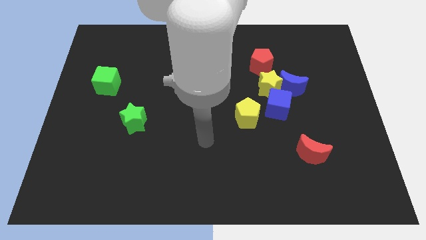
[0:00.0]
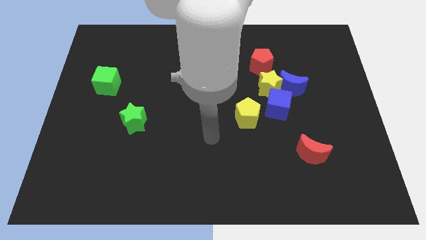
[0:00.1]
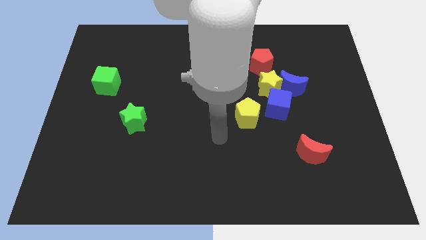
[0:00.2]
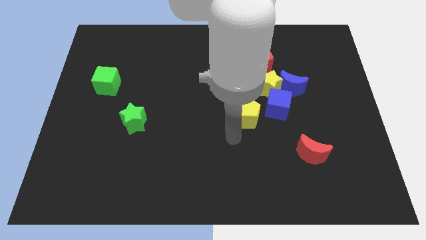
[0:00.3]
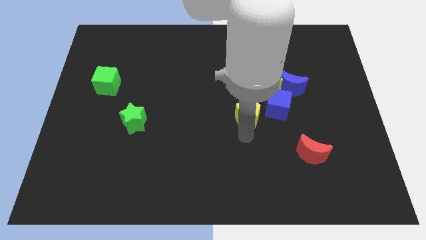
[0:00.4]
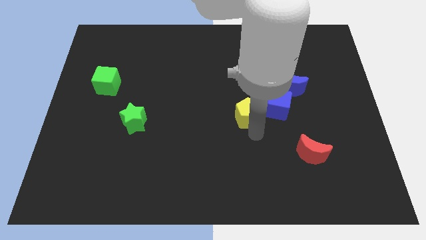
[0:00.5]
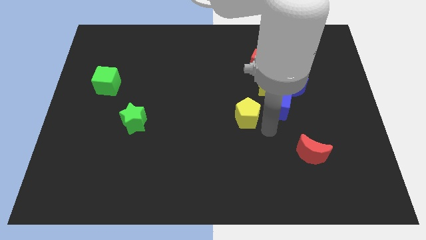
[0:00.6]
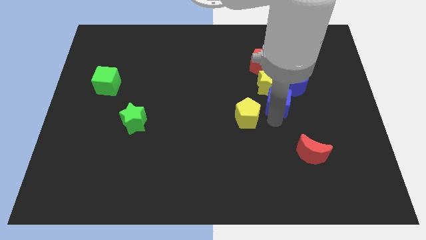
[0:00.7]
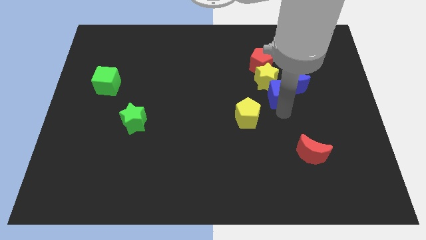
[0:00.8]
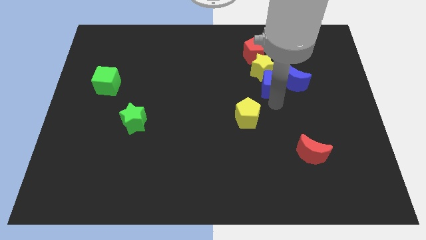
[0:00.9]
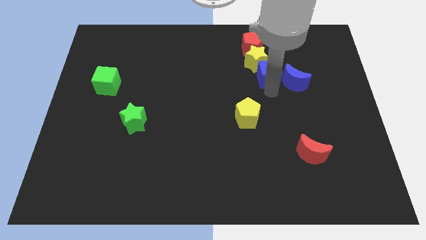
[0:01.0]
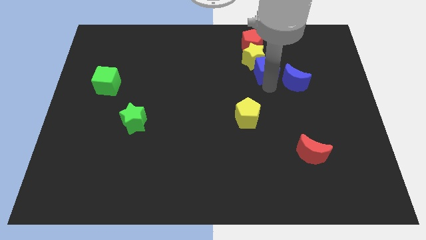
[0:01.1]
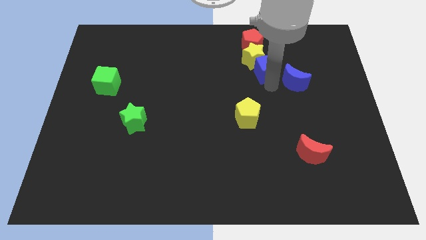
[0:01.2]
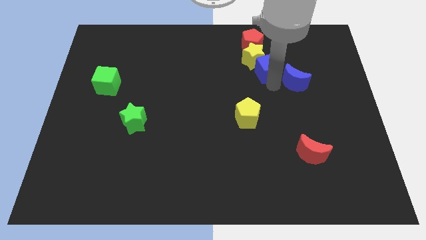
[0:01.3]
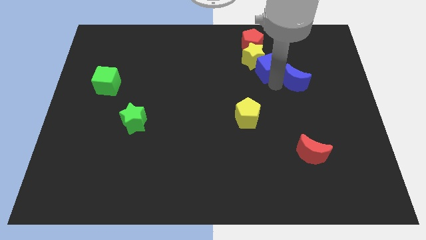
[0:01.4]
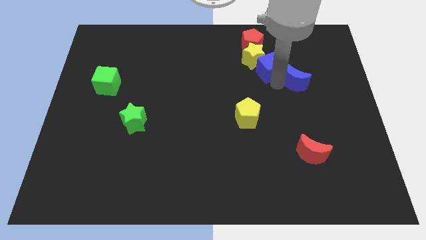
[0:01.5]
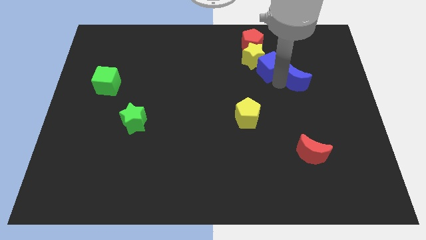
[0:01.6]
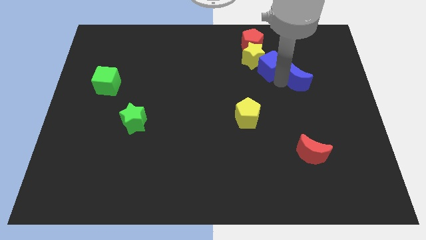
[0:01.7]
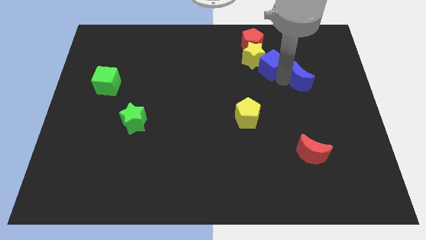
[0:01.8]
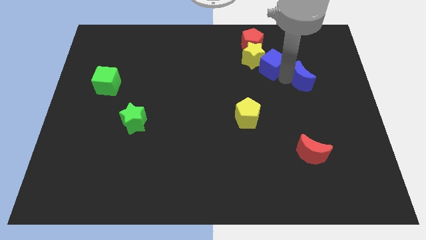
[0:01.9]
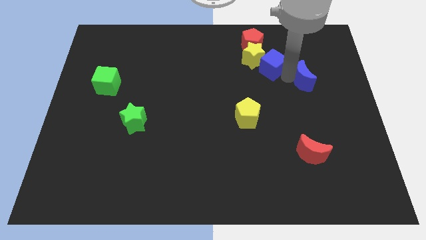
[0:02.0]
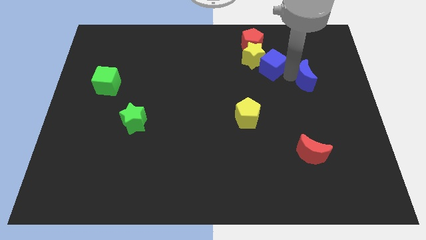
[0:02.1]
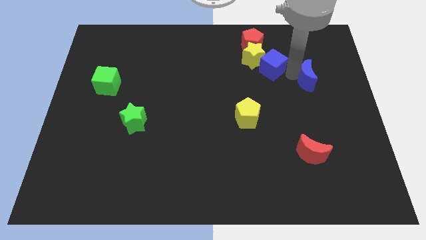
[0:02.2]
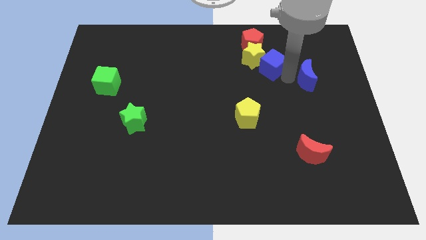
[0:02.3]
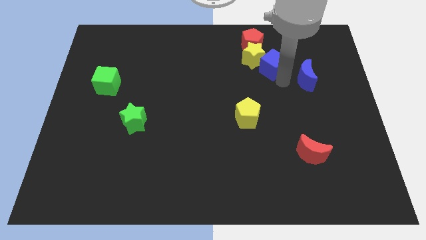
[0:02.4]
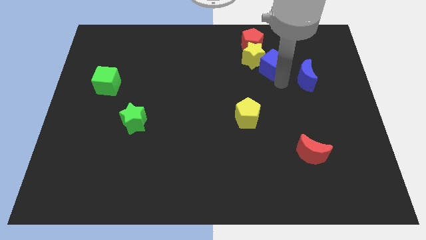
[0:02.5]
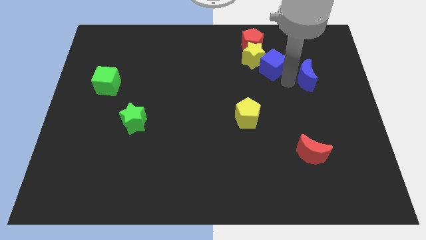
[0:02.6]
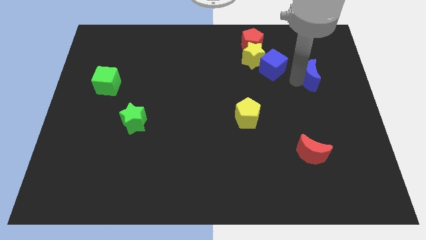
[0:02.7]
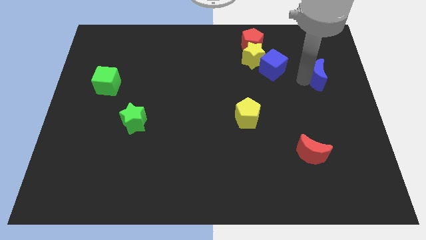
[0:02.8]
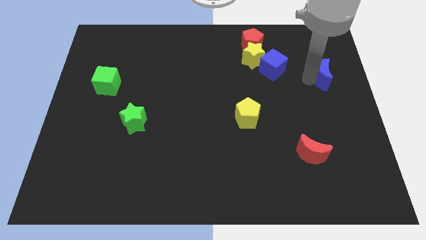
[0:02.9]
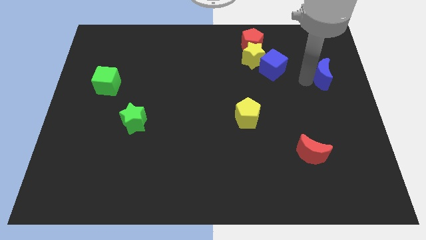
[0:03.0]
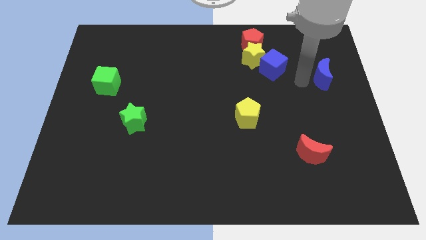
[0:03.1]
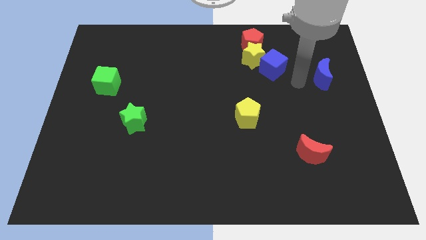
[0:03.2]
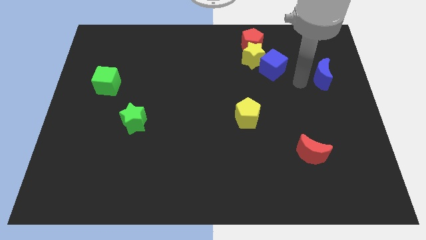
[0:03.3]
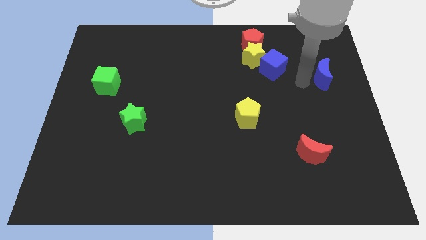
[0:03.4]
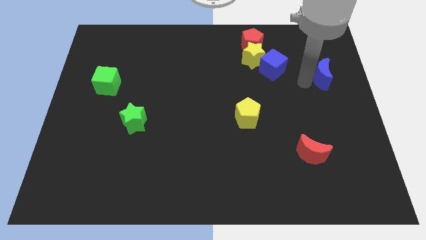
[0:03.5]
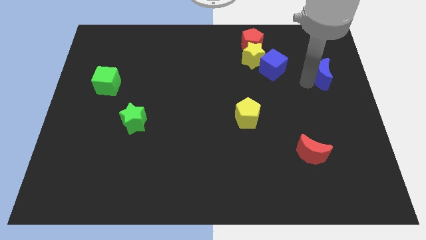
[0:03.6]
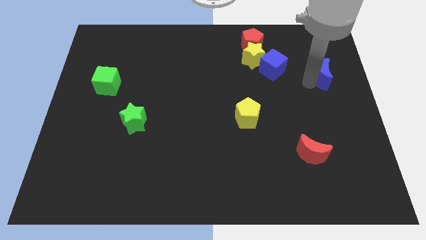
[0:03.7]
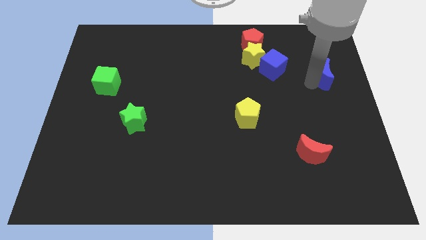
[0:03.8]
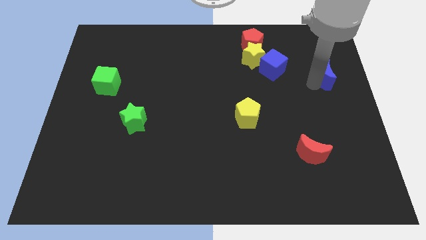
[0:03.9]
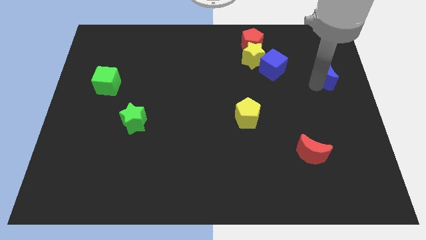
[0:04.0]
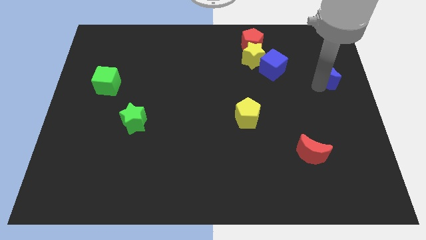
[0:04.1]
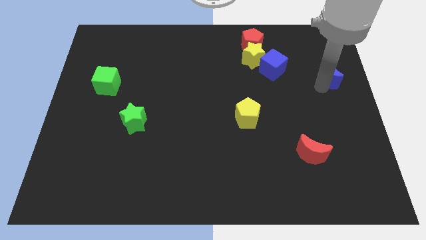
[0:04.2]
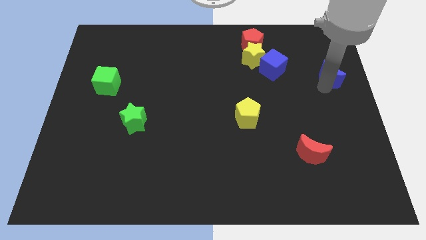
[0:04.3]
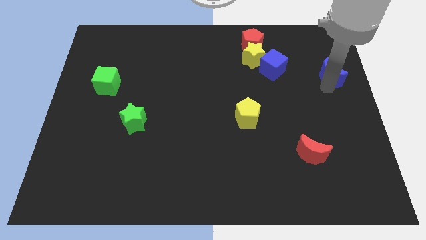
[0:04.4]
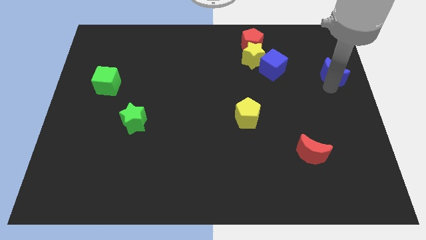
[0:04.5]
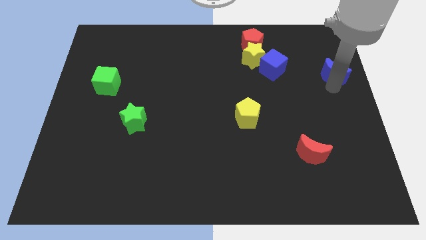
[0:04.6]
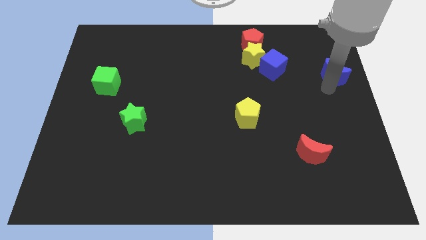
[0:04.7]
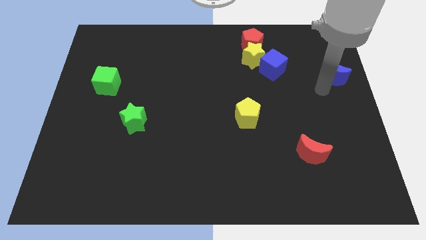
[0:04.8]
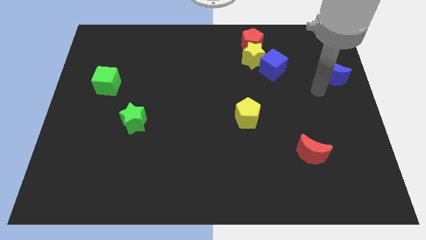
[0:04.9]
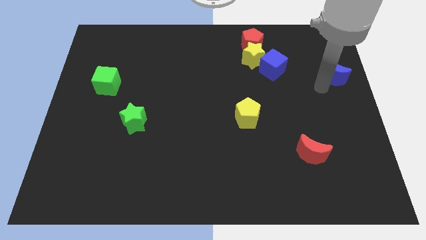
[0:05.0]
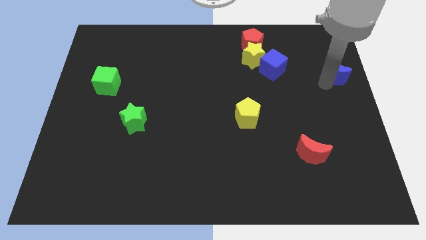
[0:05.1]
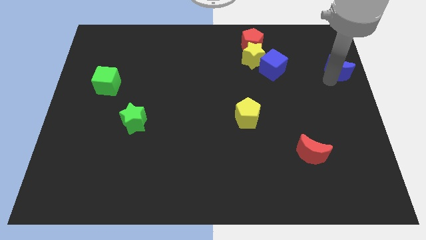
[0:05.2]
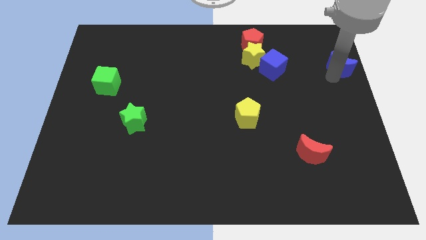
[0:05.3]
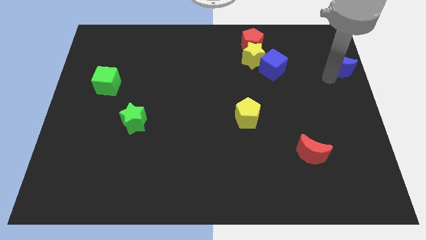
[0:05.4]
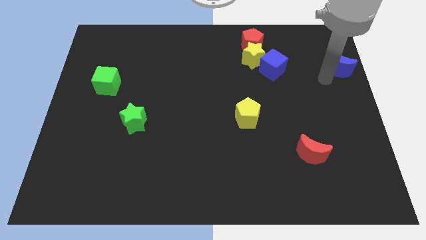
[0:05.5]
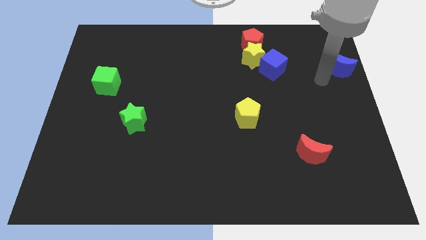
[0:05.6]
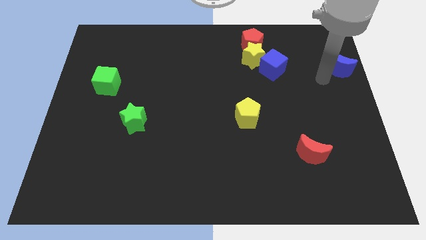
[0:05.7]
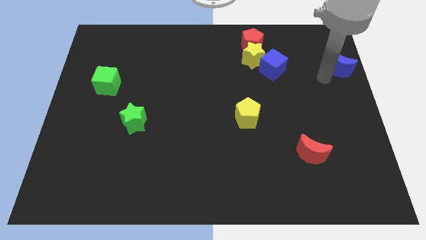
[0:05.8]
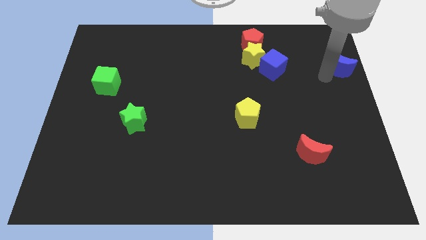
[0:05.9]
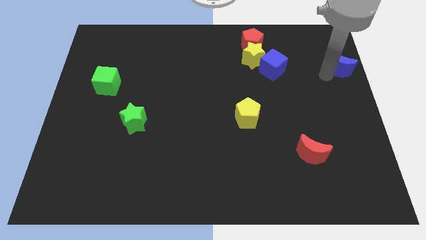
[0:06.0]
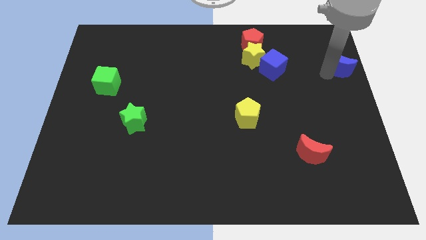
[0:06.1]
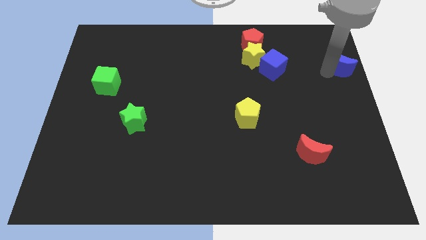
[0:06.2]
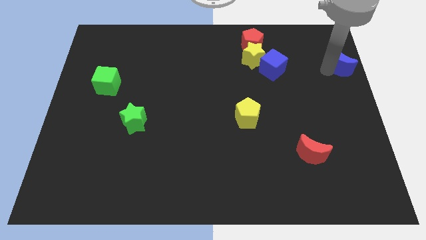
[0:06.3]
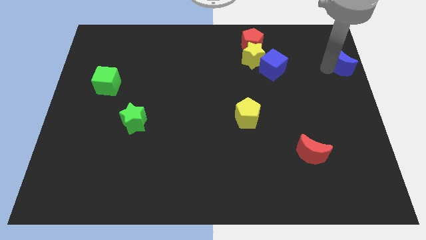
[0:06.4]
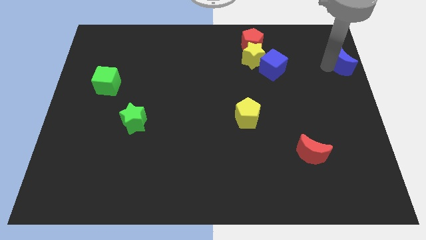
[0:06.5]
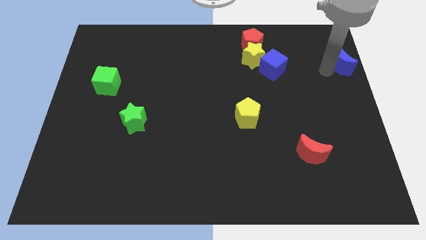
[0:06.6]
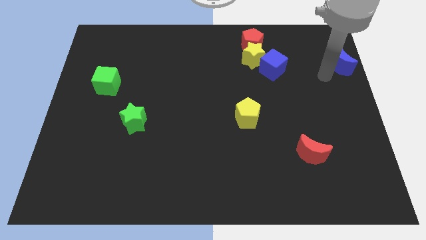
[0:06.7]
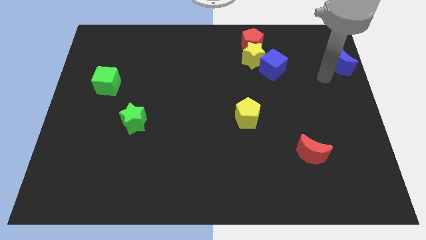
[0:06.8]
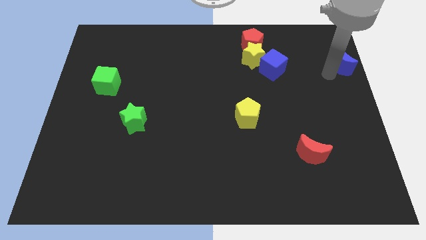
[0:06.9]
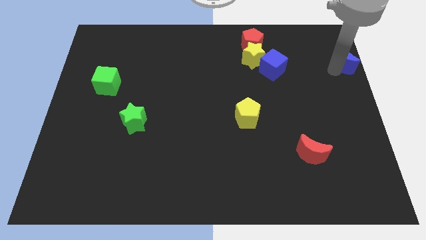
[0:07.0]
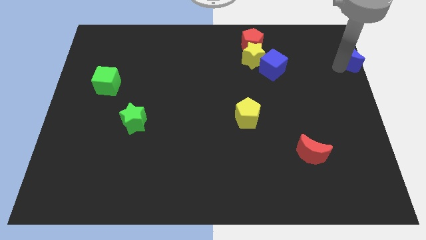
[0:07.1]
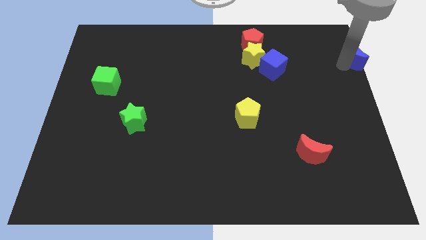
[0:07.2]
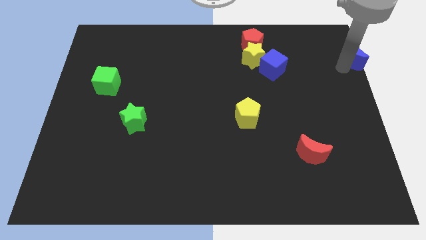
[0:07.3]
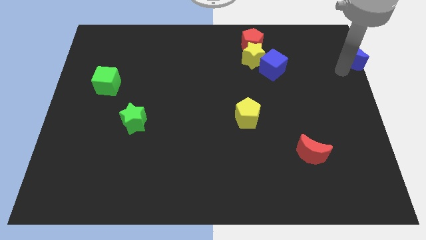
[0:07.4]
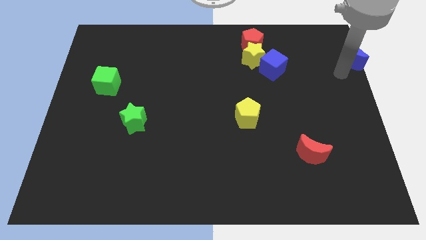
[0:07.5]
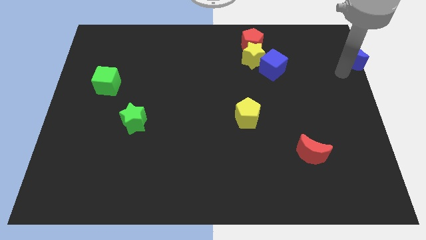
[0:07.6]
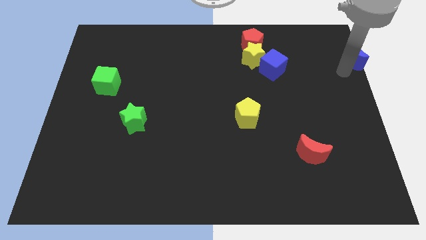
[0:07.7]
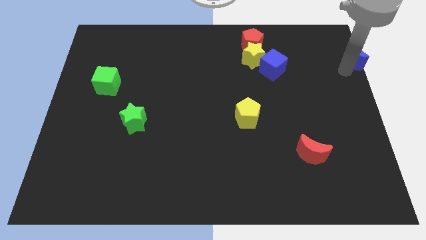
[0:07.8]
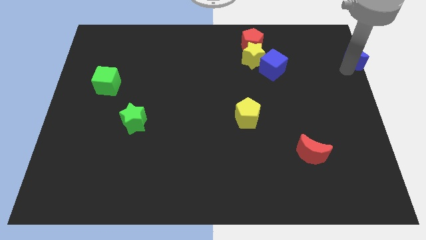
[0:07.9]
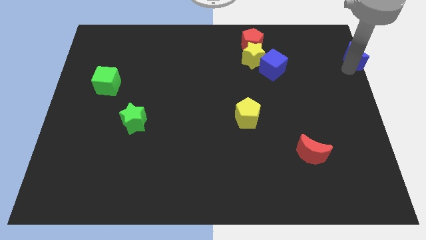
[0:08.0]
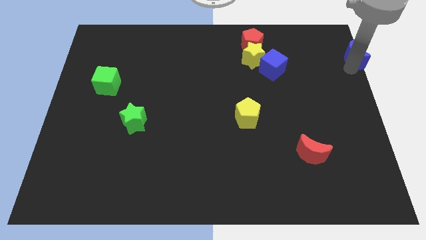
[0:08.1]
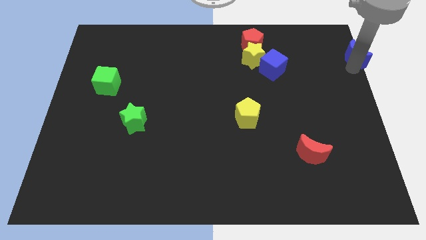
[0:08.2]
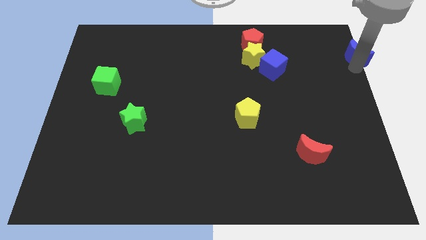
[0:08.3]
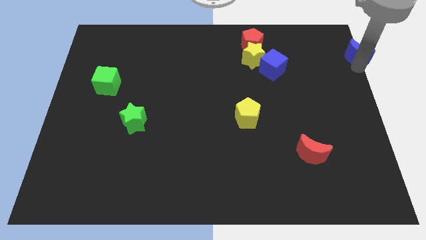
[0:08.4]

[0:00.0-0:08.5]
slide the blue moon to the top right corner
